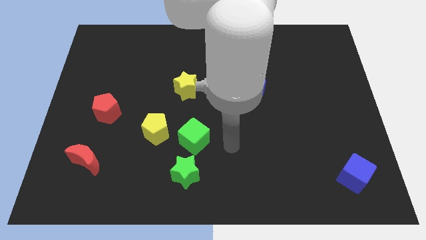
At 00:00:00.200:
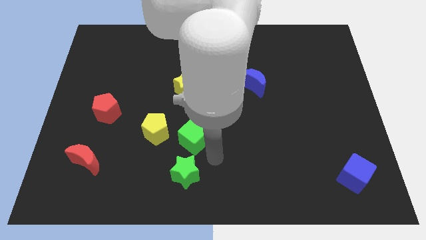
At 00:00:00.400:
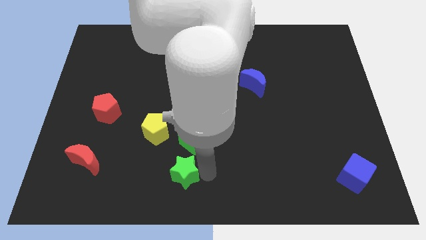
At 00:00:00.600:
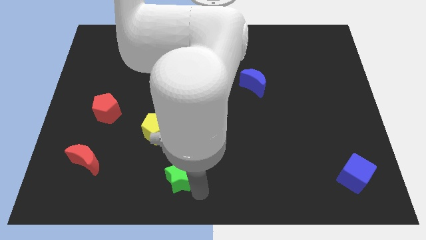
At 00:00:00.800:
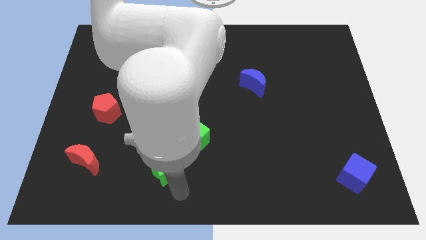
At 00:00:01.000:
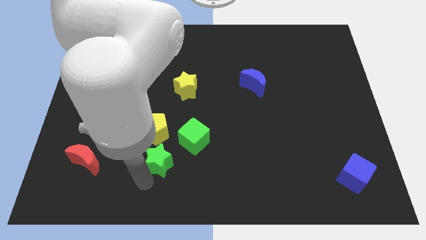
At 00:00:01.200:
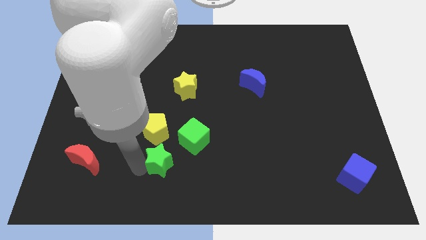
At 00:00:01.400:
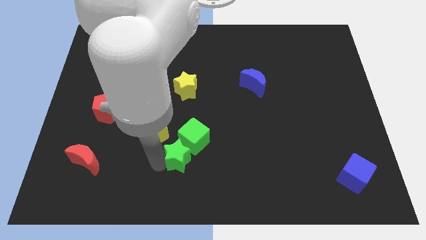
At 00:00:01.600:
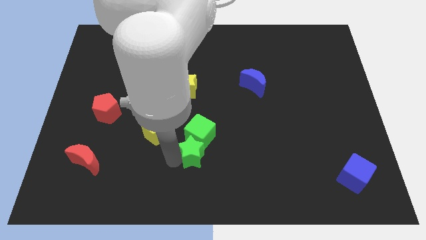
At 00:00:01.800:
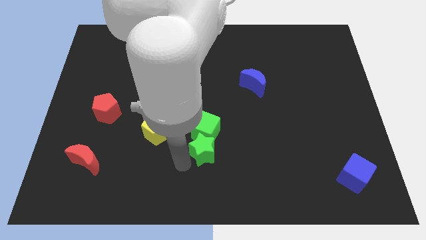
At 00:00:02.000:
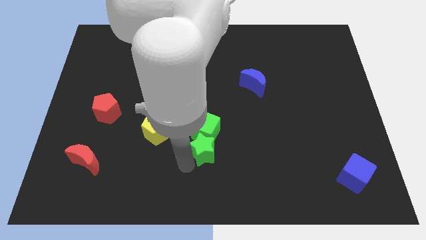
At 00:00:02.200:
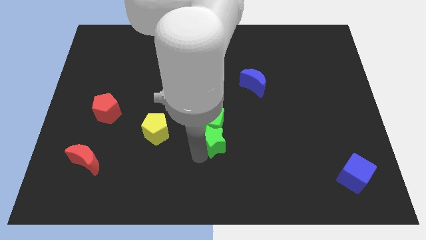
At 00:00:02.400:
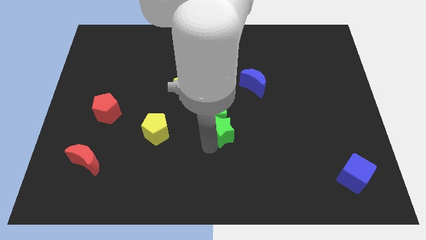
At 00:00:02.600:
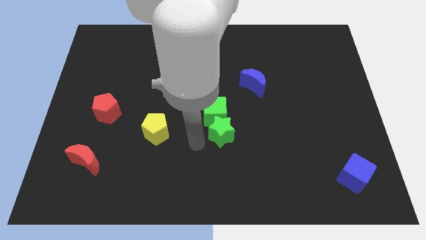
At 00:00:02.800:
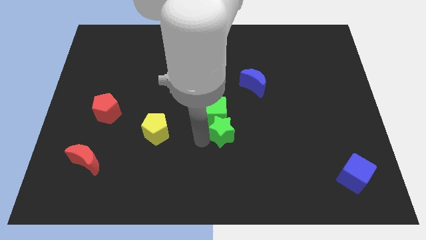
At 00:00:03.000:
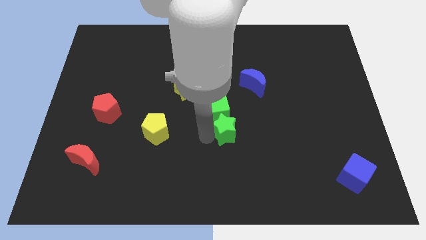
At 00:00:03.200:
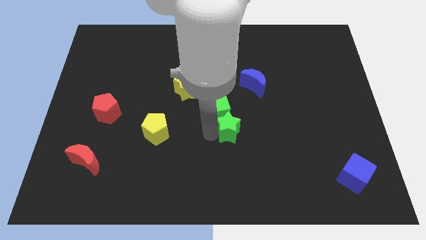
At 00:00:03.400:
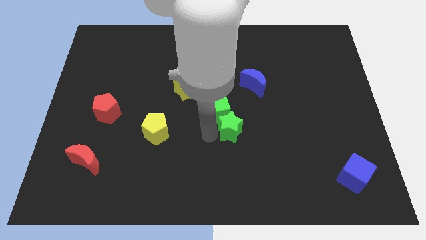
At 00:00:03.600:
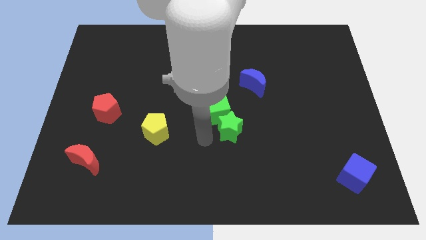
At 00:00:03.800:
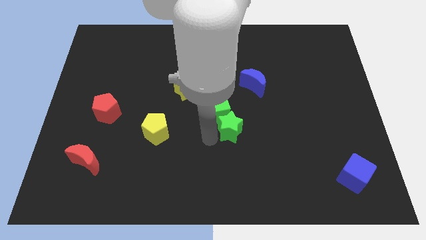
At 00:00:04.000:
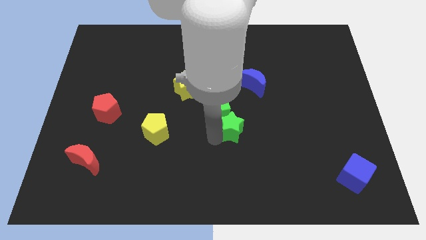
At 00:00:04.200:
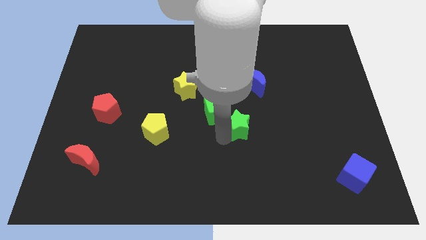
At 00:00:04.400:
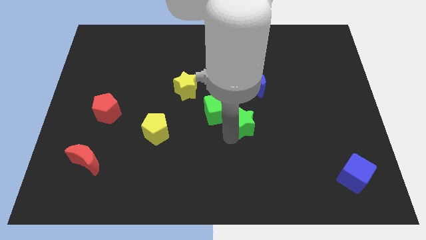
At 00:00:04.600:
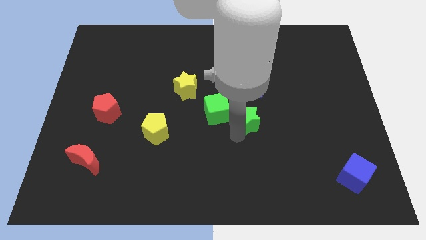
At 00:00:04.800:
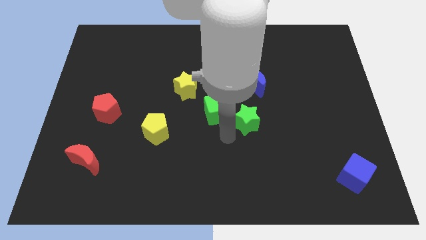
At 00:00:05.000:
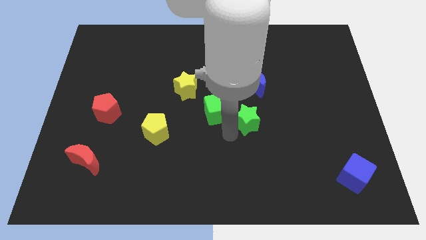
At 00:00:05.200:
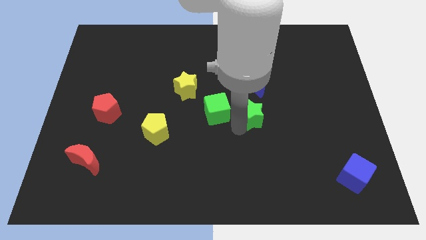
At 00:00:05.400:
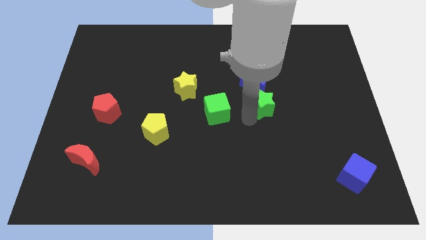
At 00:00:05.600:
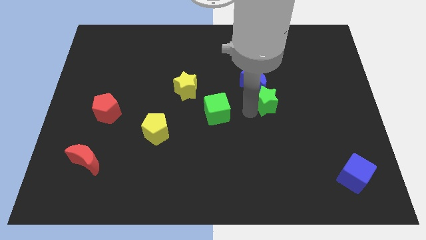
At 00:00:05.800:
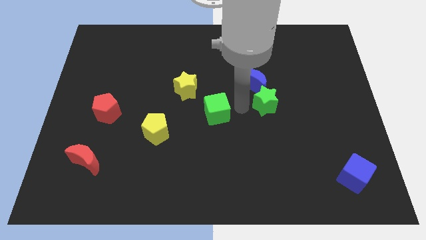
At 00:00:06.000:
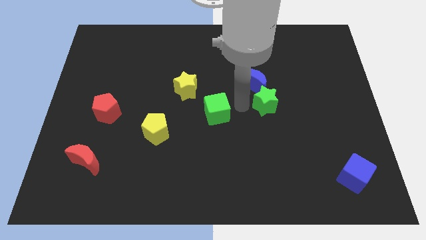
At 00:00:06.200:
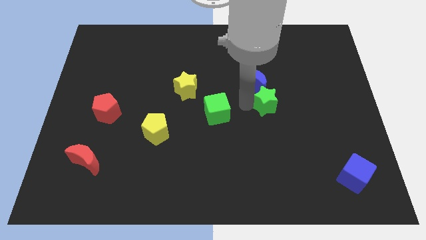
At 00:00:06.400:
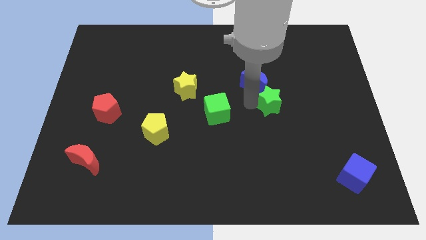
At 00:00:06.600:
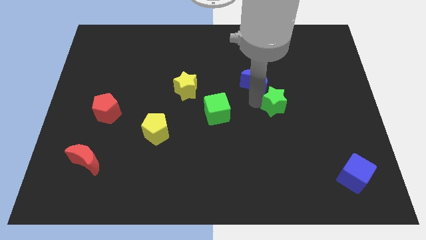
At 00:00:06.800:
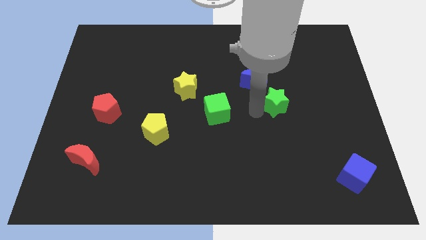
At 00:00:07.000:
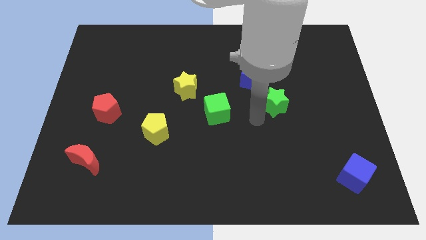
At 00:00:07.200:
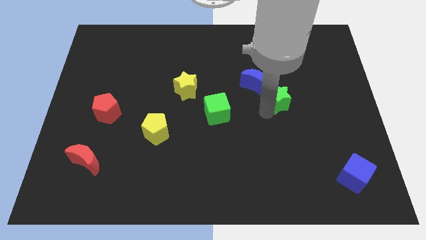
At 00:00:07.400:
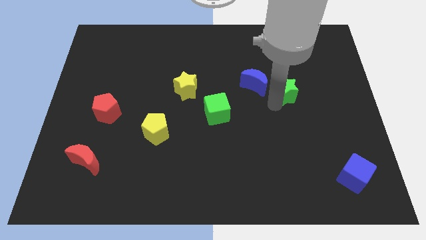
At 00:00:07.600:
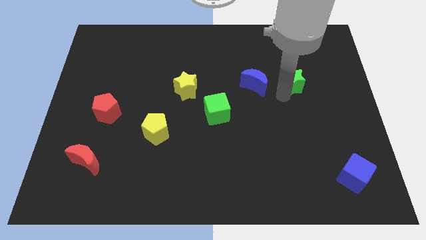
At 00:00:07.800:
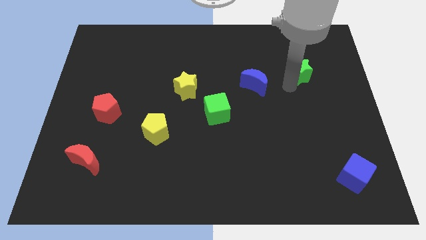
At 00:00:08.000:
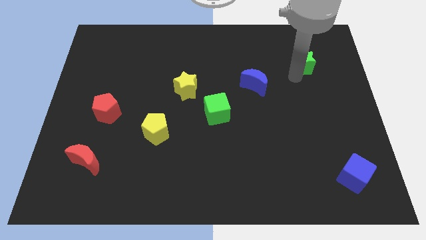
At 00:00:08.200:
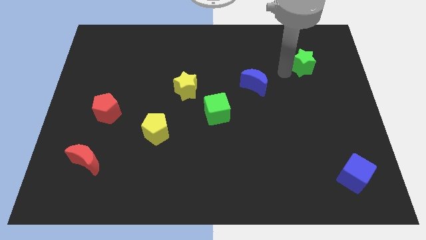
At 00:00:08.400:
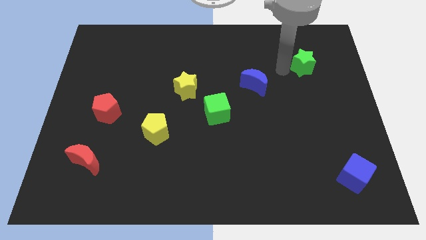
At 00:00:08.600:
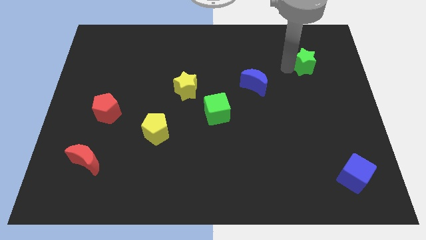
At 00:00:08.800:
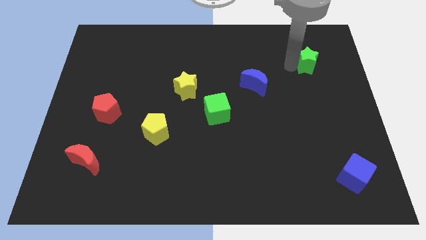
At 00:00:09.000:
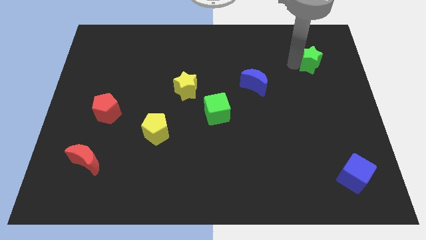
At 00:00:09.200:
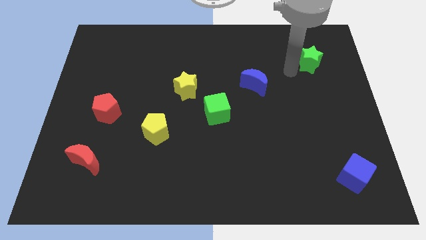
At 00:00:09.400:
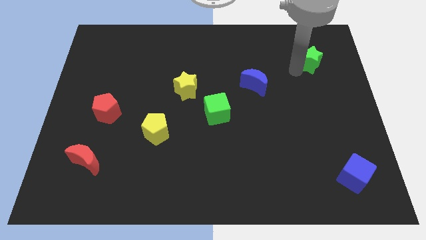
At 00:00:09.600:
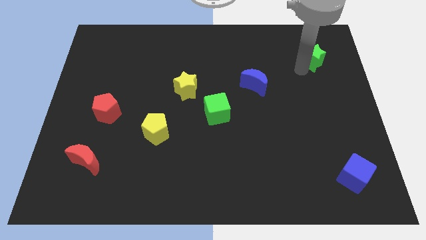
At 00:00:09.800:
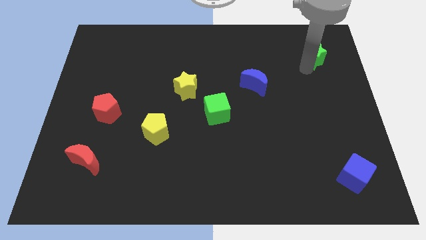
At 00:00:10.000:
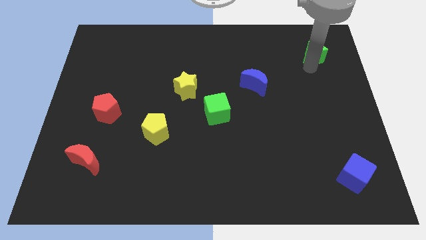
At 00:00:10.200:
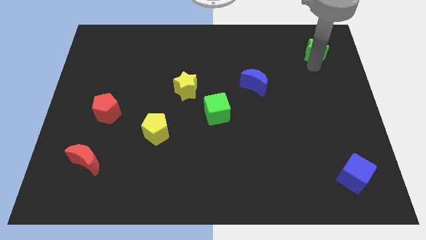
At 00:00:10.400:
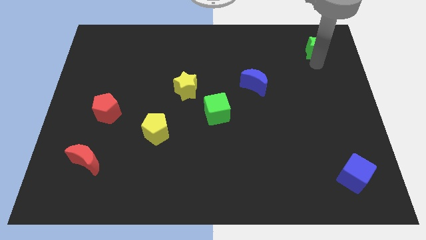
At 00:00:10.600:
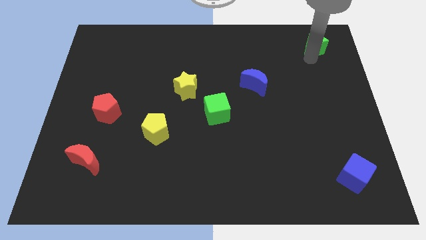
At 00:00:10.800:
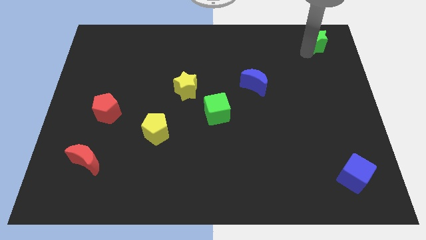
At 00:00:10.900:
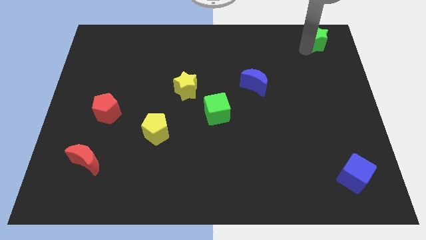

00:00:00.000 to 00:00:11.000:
push the green star to the top right corner

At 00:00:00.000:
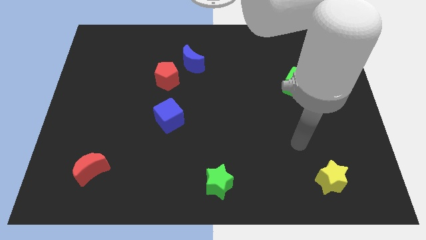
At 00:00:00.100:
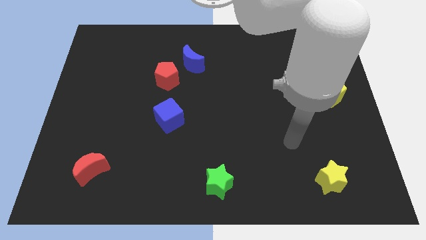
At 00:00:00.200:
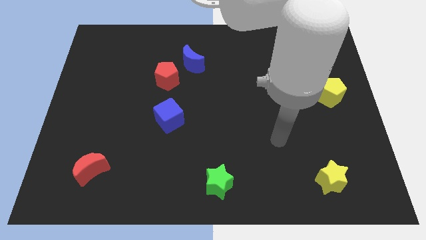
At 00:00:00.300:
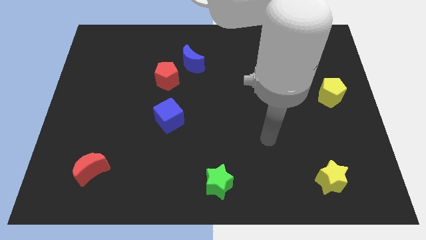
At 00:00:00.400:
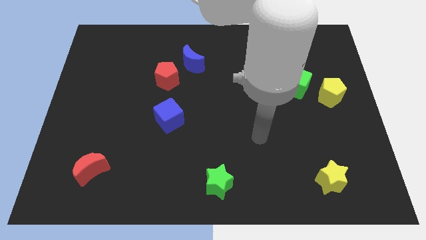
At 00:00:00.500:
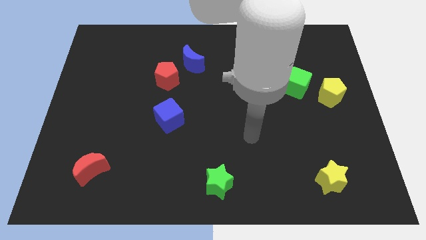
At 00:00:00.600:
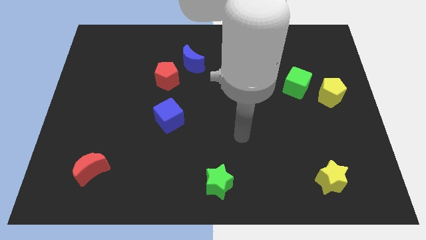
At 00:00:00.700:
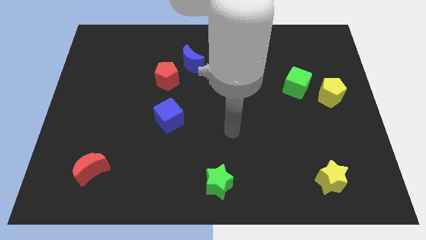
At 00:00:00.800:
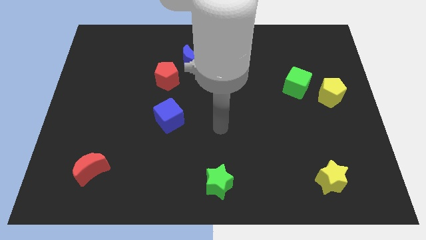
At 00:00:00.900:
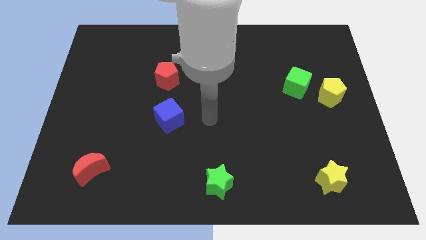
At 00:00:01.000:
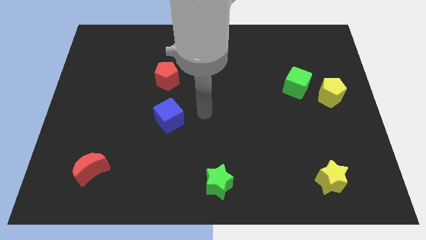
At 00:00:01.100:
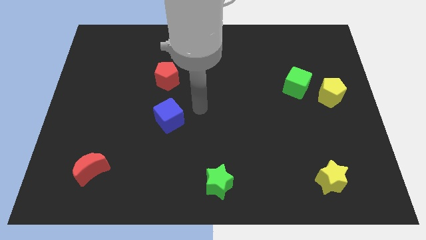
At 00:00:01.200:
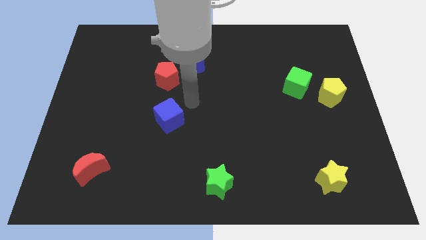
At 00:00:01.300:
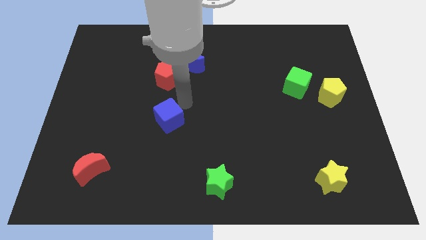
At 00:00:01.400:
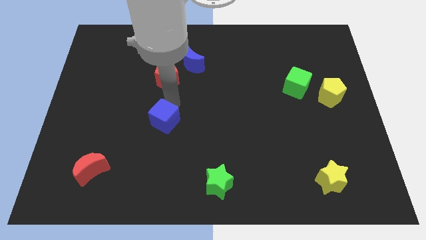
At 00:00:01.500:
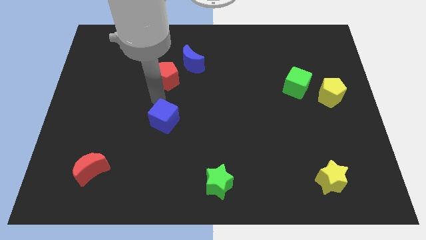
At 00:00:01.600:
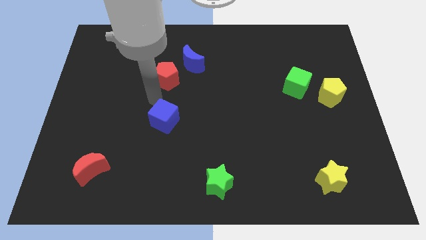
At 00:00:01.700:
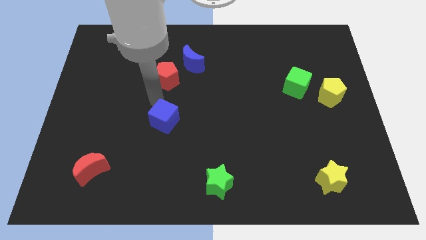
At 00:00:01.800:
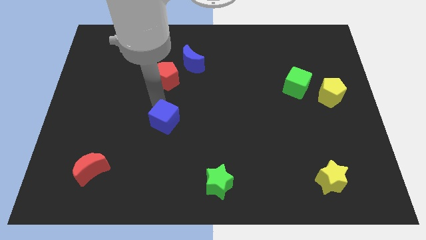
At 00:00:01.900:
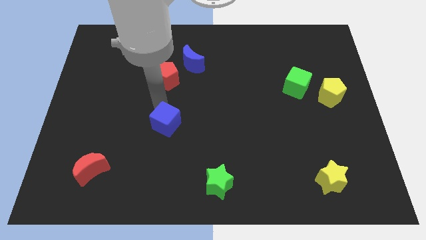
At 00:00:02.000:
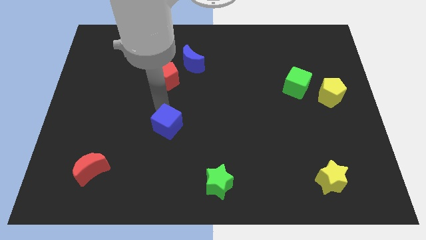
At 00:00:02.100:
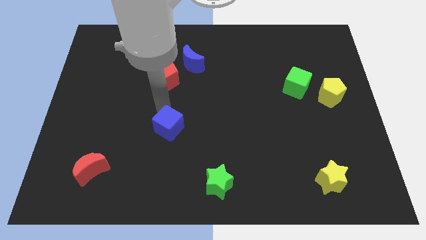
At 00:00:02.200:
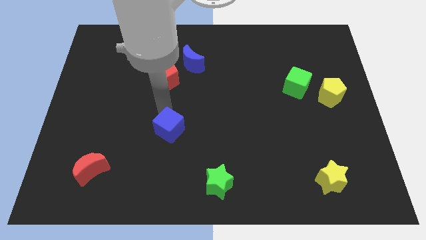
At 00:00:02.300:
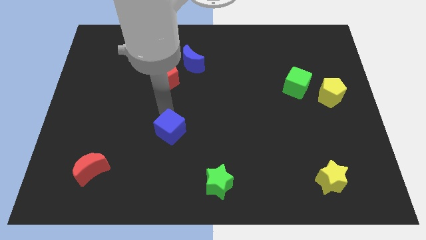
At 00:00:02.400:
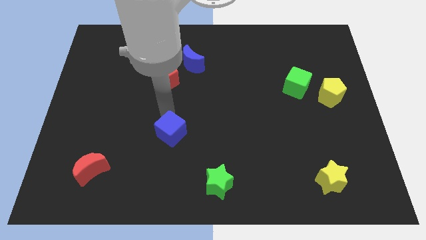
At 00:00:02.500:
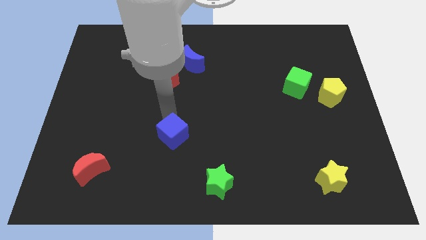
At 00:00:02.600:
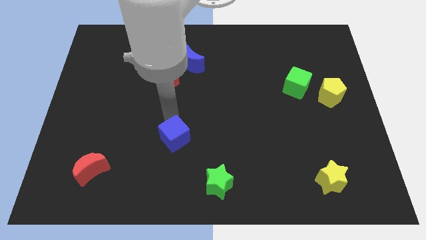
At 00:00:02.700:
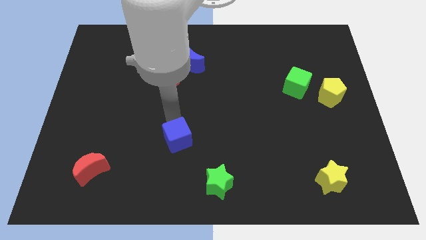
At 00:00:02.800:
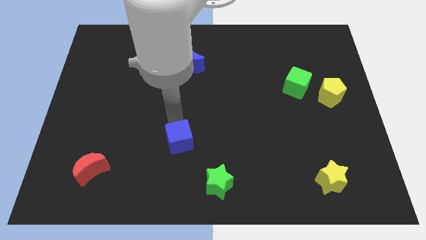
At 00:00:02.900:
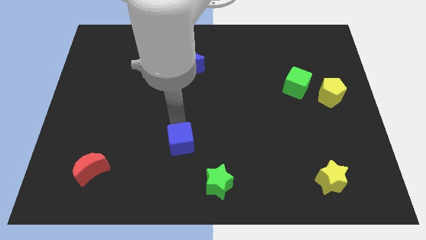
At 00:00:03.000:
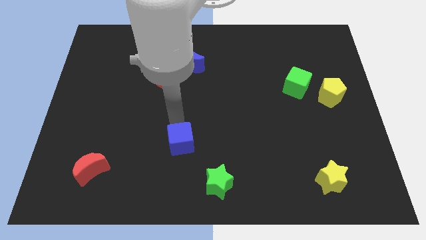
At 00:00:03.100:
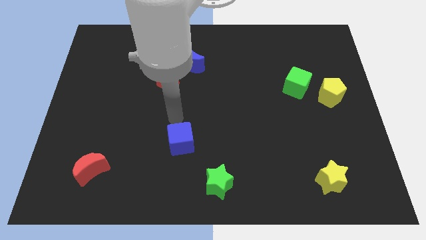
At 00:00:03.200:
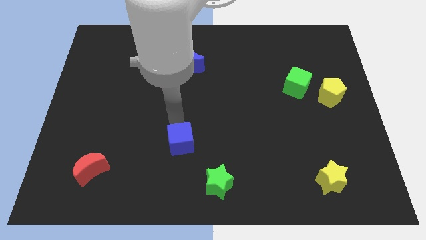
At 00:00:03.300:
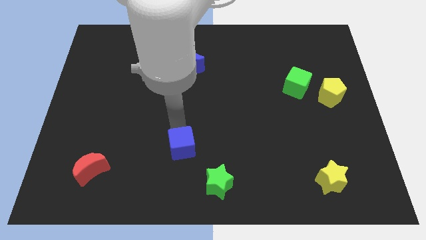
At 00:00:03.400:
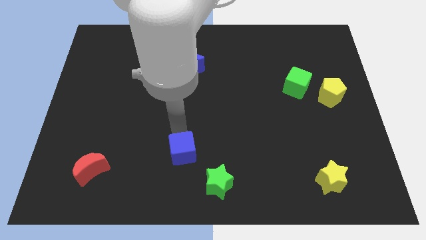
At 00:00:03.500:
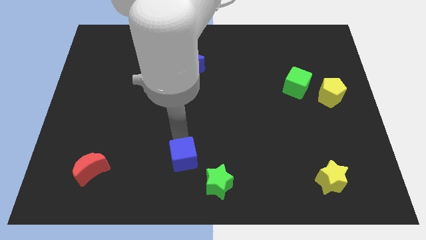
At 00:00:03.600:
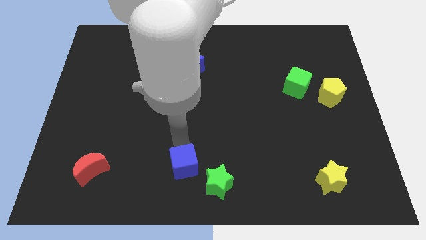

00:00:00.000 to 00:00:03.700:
slide the blue cube to the bottom
